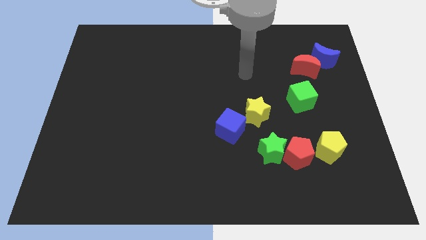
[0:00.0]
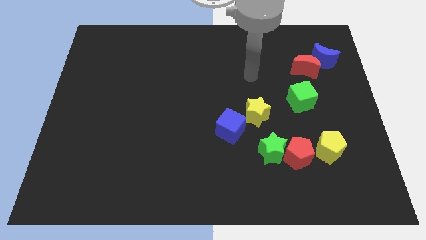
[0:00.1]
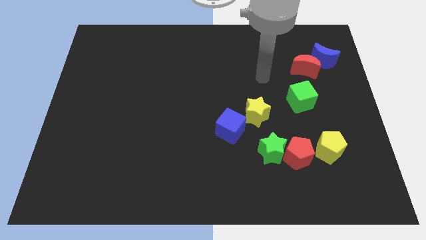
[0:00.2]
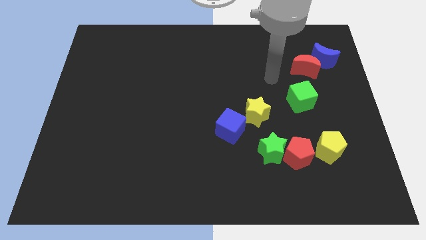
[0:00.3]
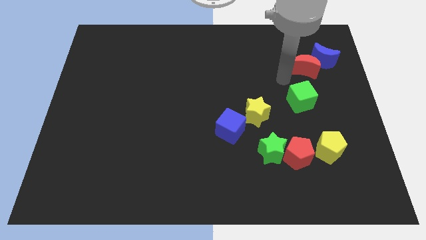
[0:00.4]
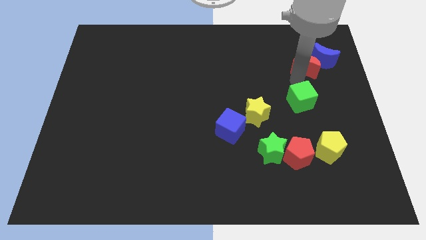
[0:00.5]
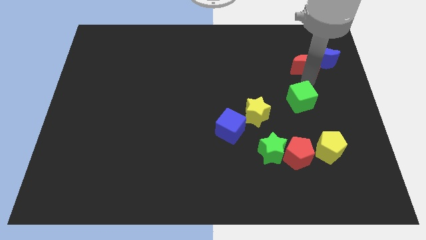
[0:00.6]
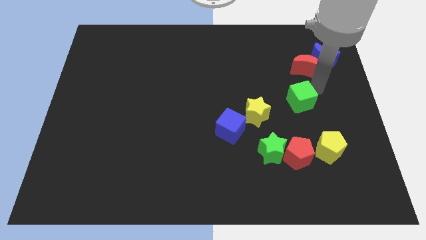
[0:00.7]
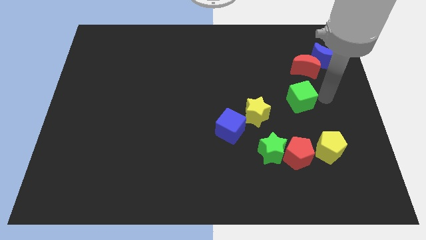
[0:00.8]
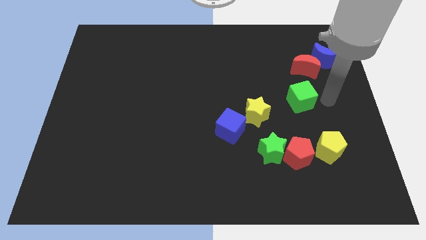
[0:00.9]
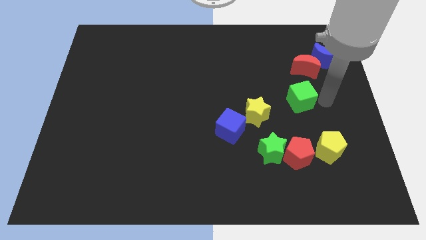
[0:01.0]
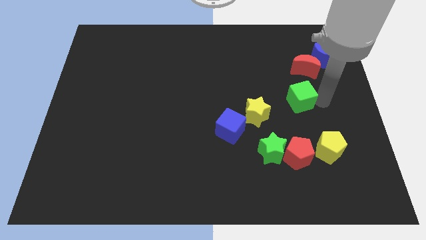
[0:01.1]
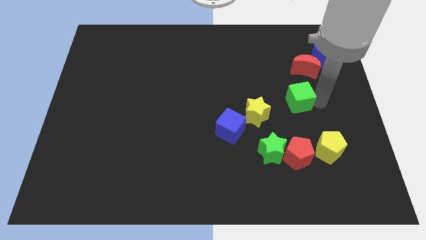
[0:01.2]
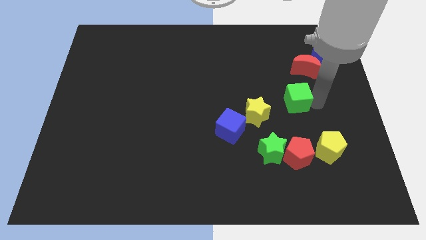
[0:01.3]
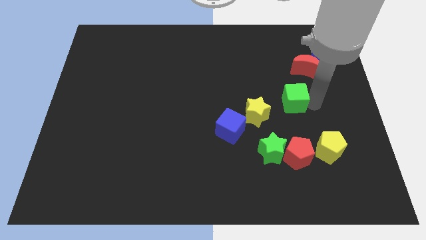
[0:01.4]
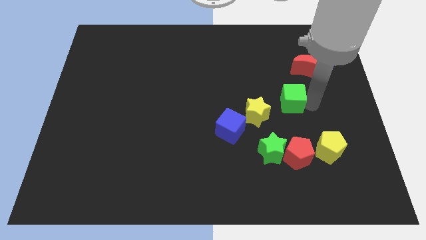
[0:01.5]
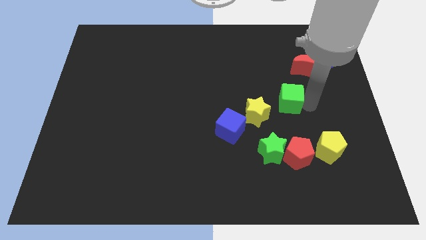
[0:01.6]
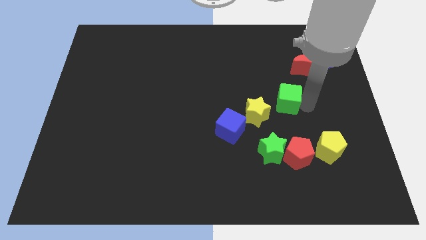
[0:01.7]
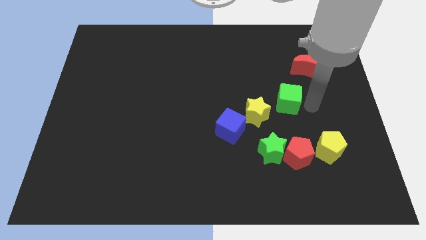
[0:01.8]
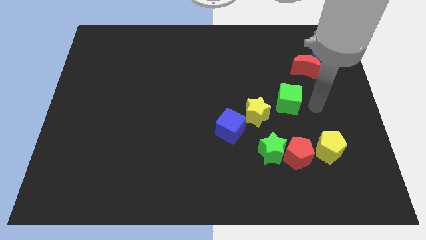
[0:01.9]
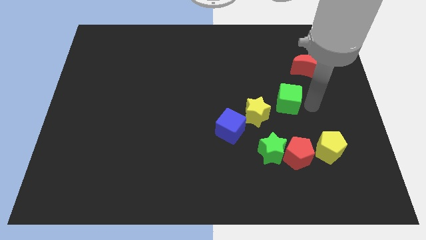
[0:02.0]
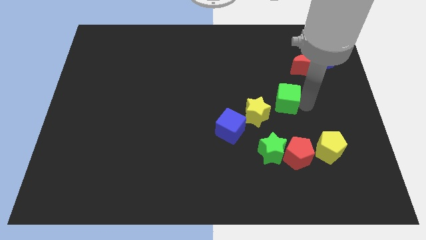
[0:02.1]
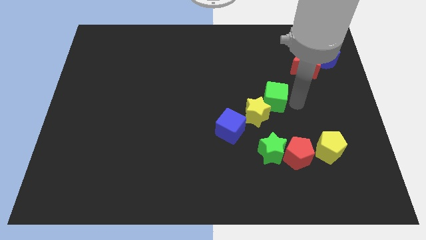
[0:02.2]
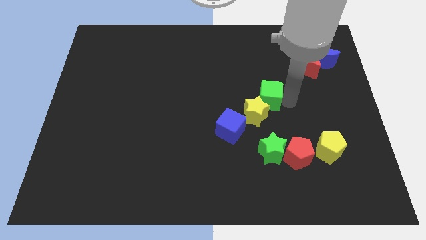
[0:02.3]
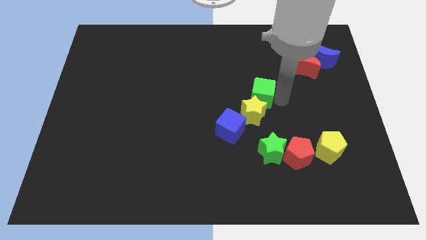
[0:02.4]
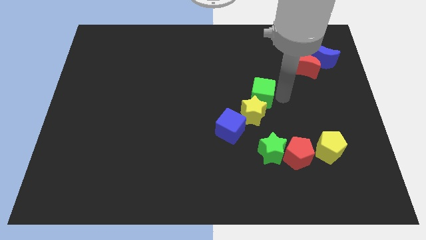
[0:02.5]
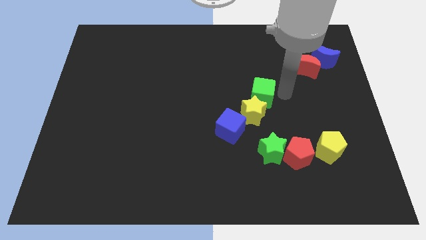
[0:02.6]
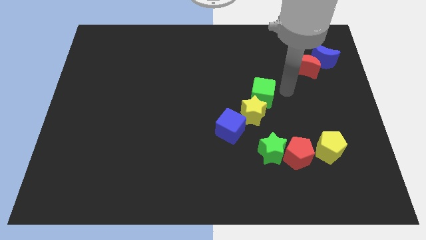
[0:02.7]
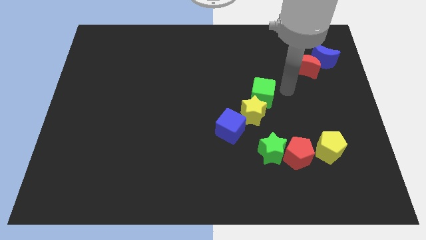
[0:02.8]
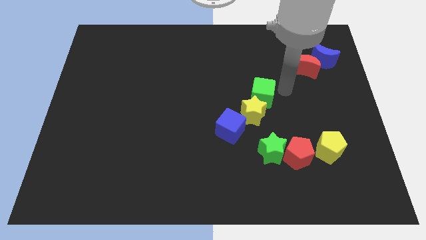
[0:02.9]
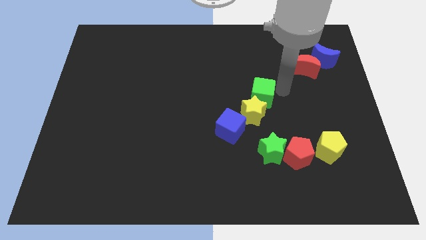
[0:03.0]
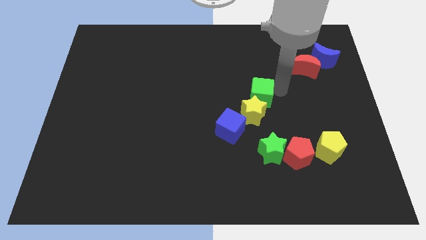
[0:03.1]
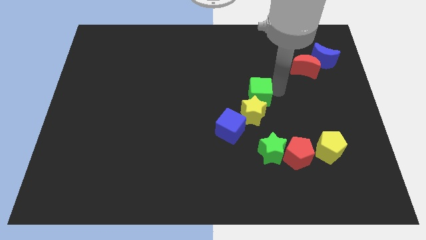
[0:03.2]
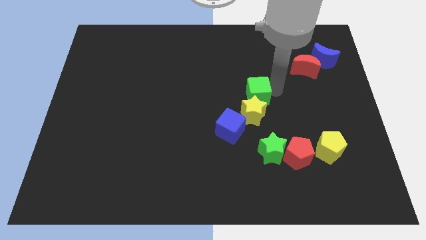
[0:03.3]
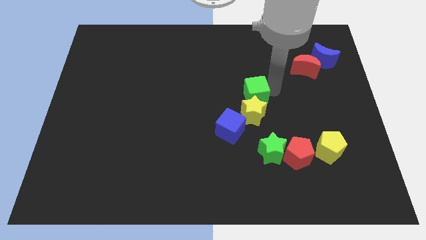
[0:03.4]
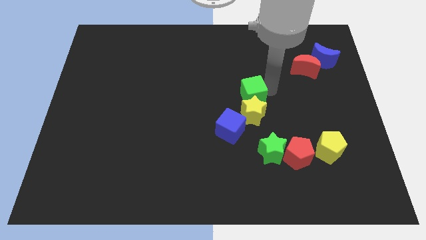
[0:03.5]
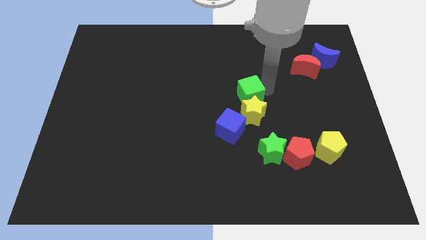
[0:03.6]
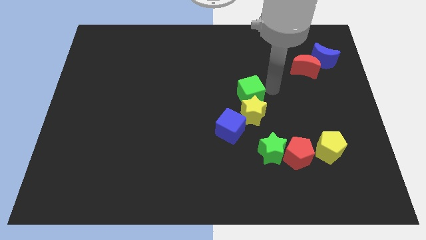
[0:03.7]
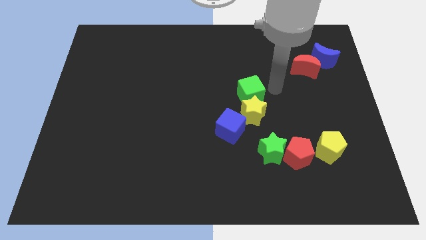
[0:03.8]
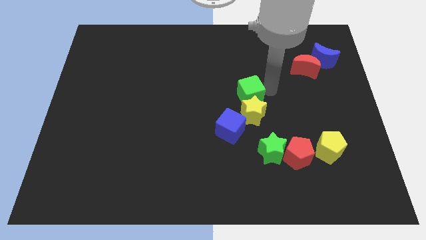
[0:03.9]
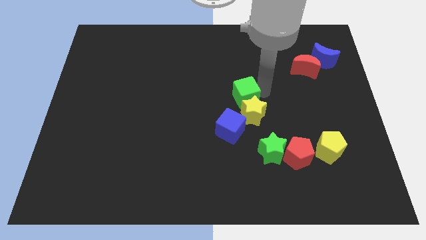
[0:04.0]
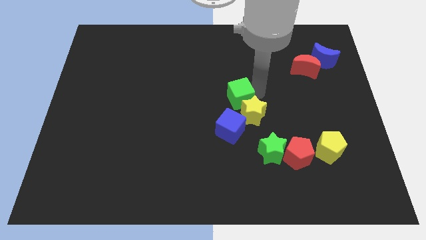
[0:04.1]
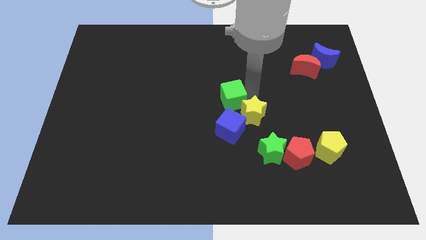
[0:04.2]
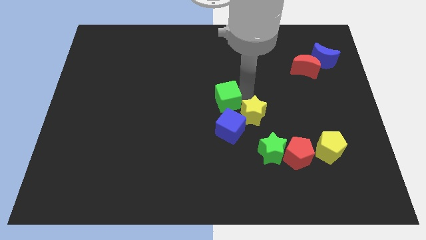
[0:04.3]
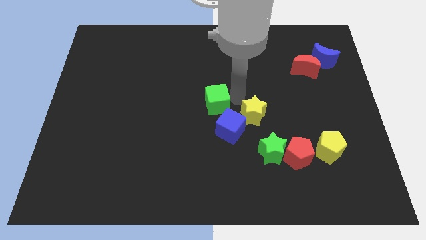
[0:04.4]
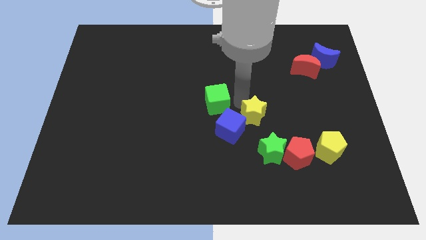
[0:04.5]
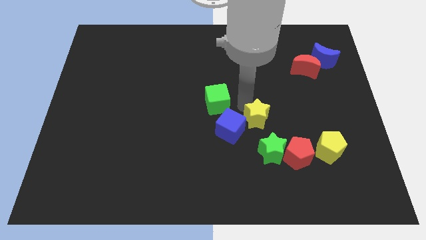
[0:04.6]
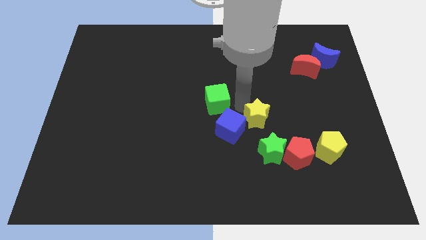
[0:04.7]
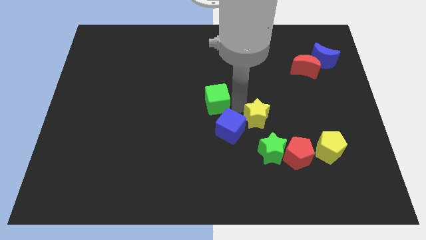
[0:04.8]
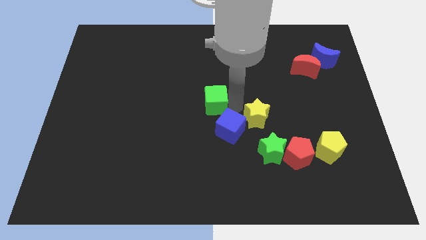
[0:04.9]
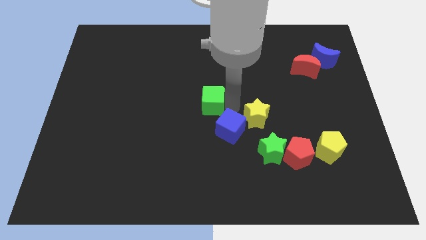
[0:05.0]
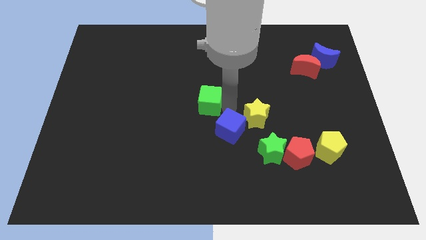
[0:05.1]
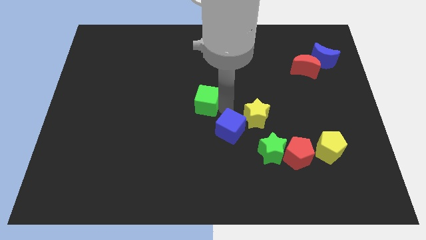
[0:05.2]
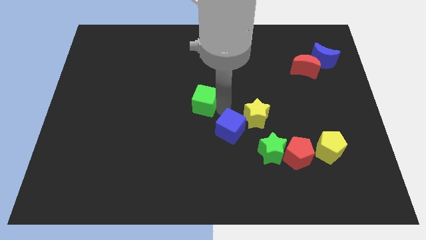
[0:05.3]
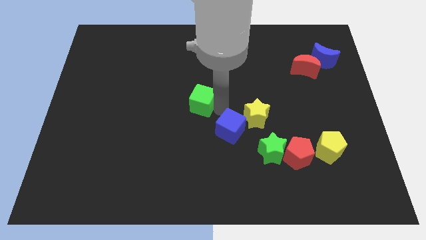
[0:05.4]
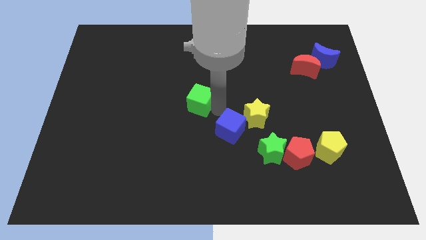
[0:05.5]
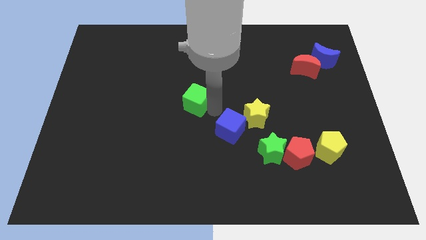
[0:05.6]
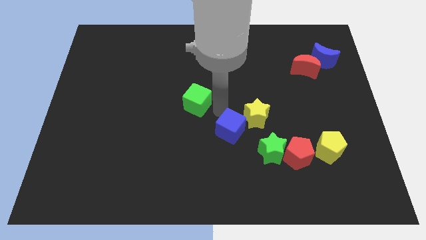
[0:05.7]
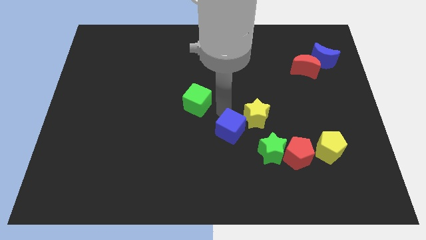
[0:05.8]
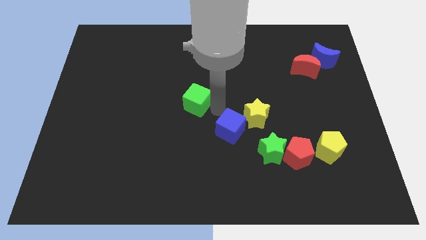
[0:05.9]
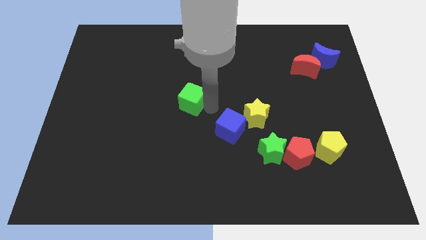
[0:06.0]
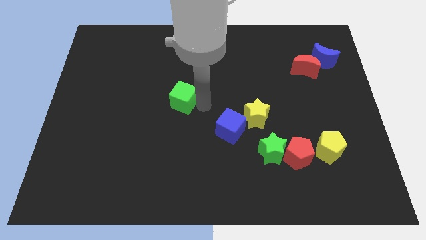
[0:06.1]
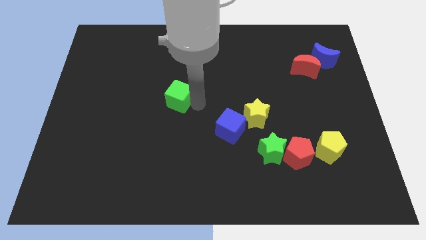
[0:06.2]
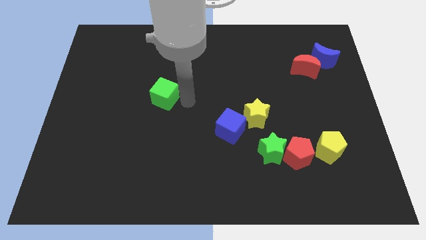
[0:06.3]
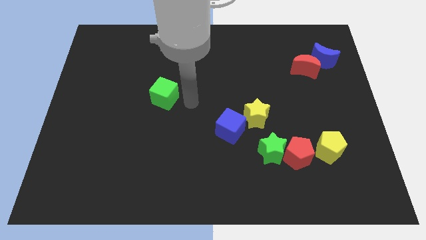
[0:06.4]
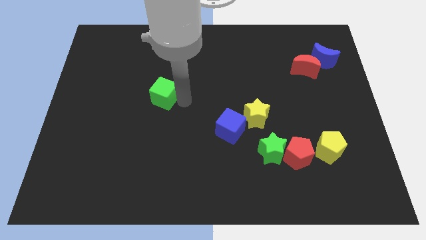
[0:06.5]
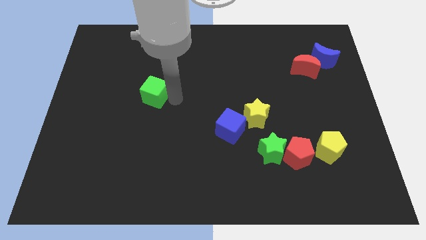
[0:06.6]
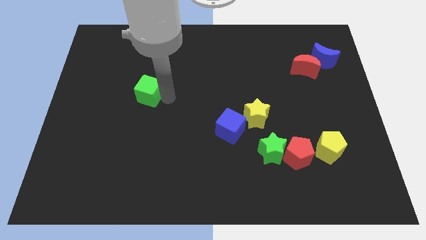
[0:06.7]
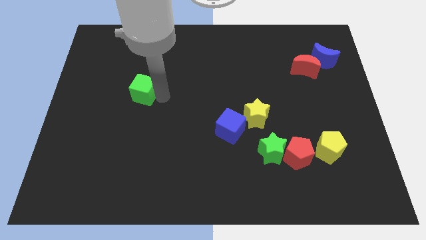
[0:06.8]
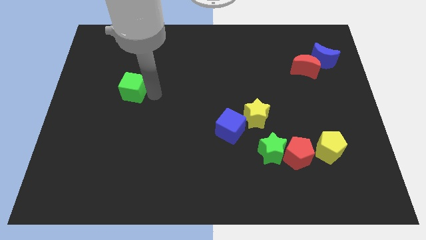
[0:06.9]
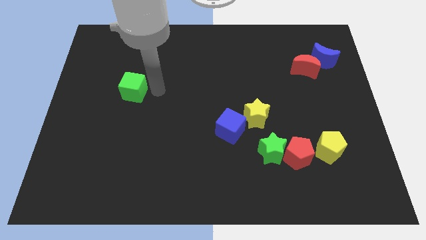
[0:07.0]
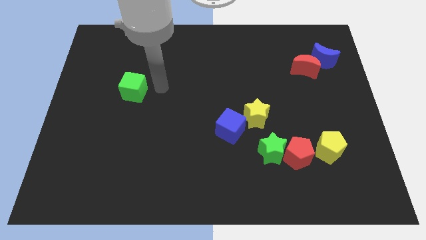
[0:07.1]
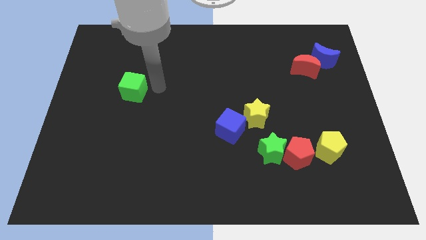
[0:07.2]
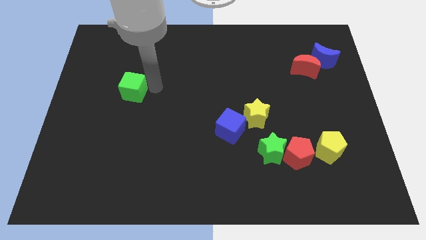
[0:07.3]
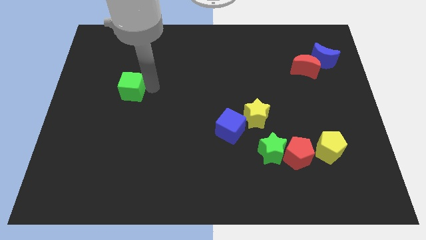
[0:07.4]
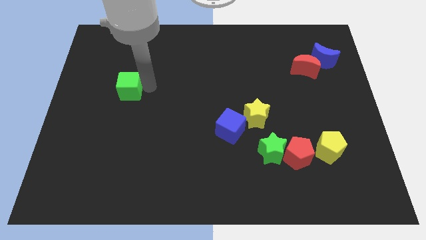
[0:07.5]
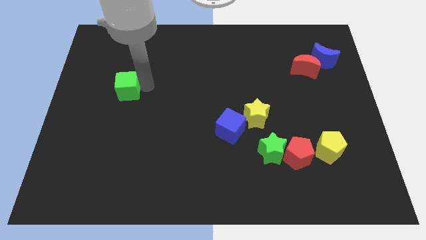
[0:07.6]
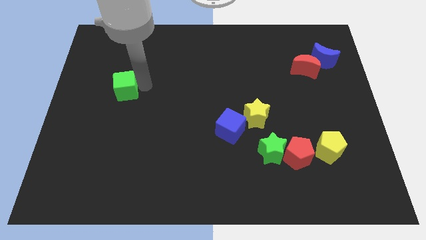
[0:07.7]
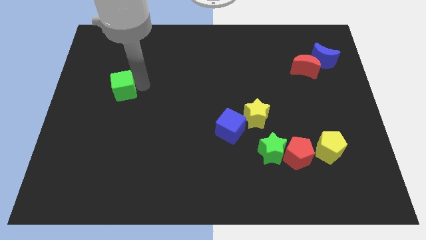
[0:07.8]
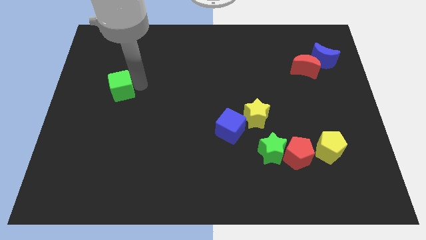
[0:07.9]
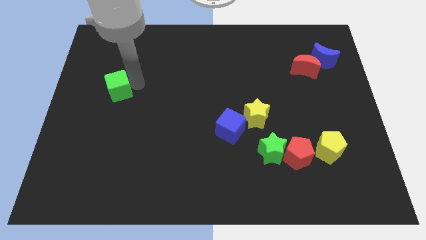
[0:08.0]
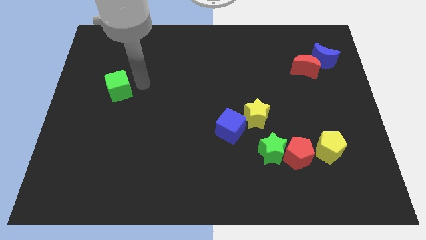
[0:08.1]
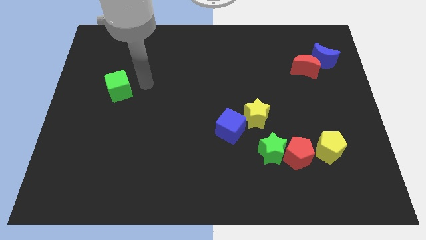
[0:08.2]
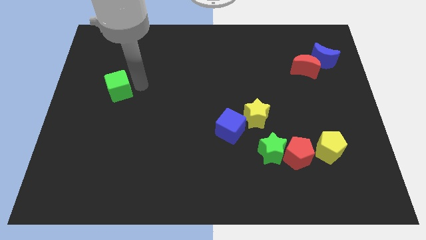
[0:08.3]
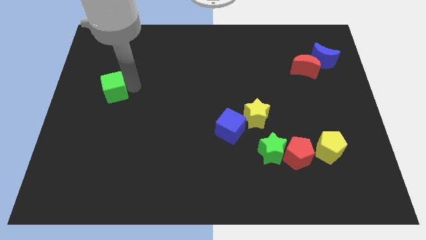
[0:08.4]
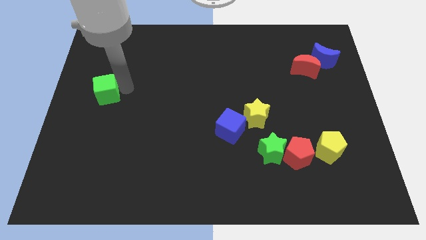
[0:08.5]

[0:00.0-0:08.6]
slide the green cube to the left side
